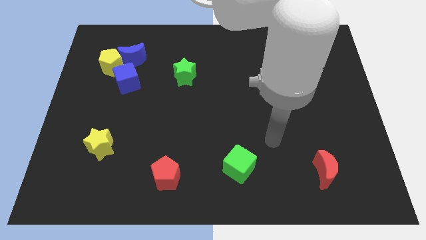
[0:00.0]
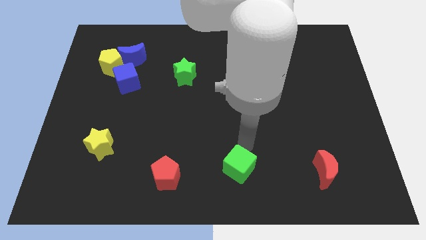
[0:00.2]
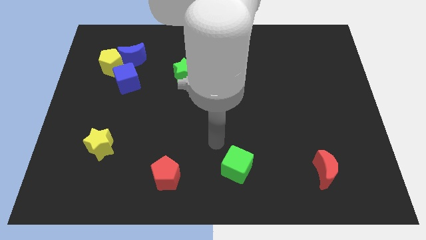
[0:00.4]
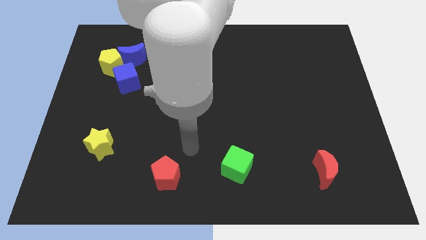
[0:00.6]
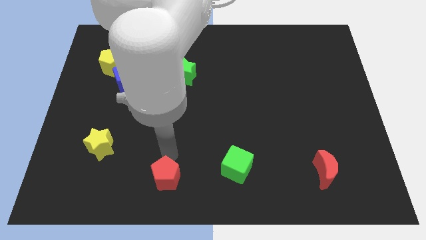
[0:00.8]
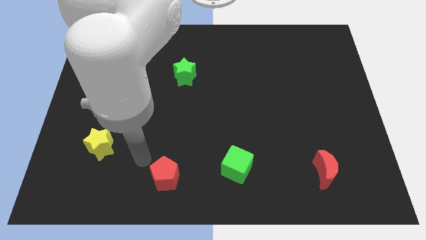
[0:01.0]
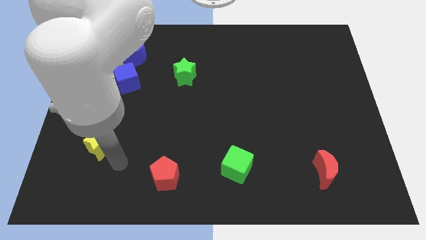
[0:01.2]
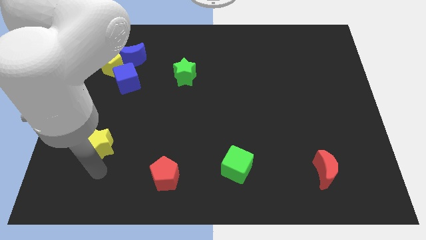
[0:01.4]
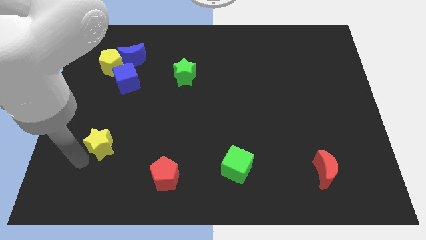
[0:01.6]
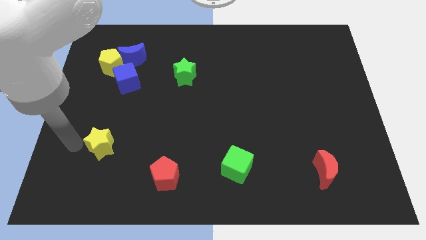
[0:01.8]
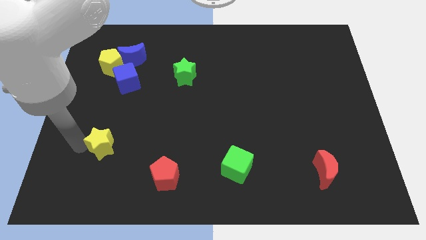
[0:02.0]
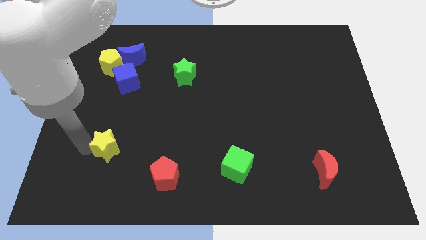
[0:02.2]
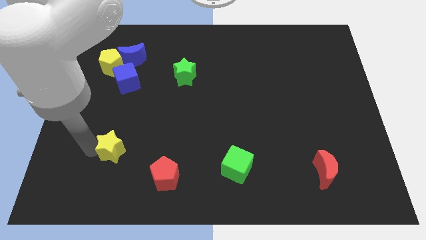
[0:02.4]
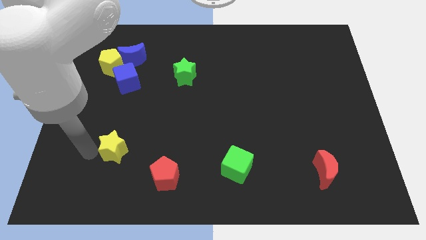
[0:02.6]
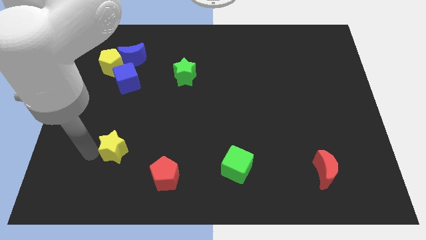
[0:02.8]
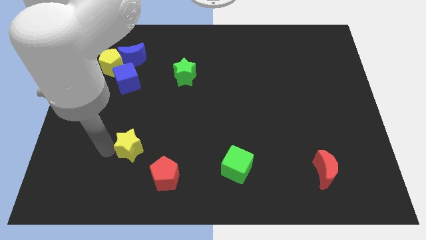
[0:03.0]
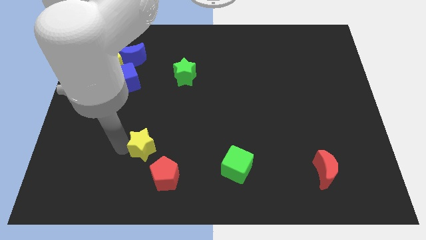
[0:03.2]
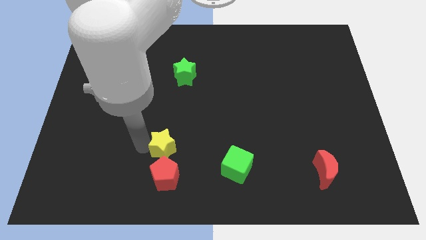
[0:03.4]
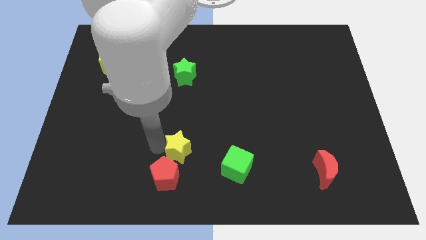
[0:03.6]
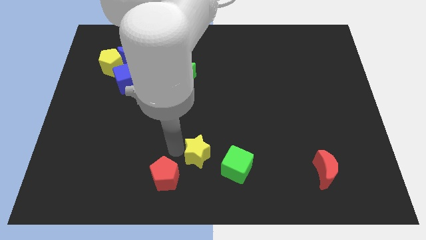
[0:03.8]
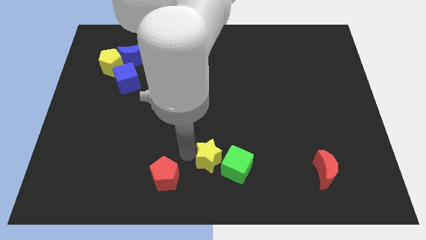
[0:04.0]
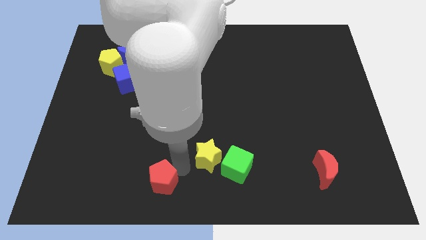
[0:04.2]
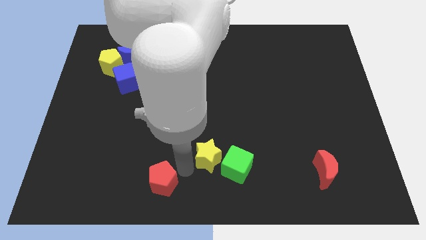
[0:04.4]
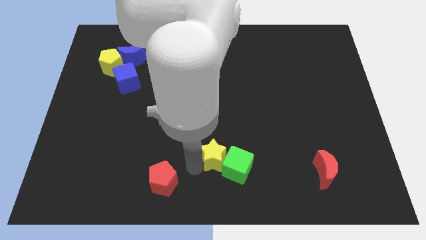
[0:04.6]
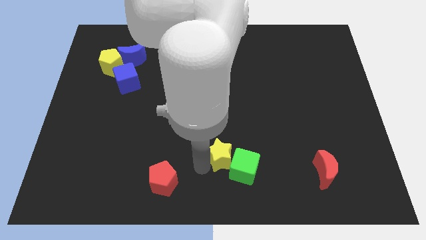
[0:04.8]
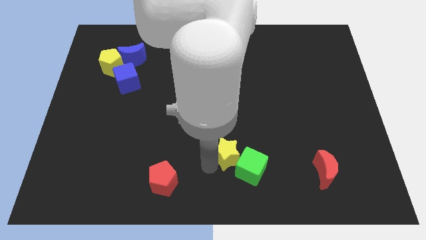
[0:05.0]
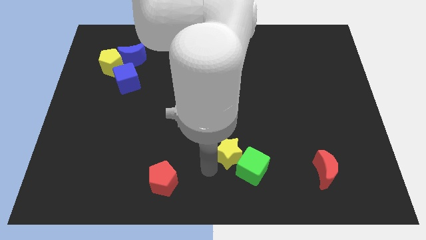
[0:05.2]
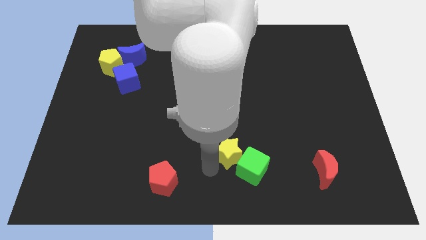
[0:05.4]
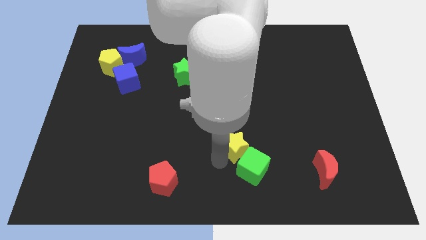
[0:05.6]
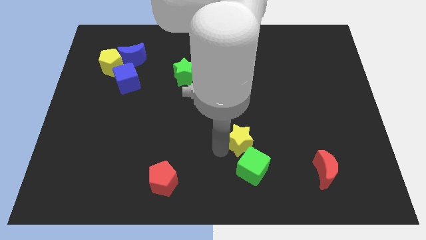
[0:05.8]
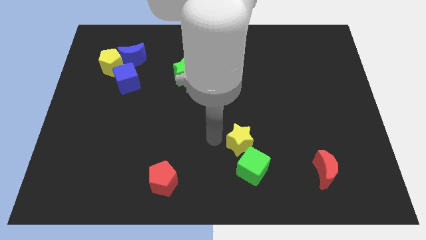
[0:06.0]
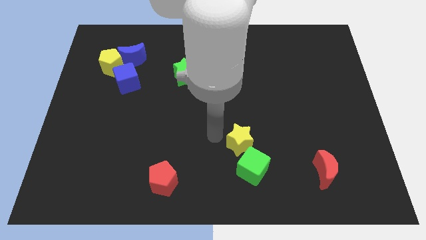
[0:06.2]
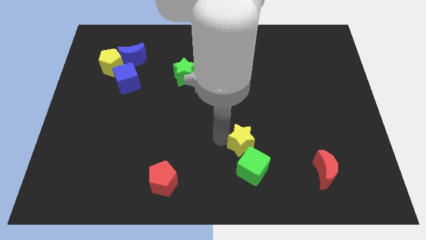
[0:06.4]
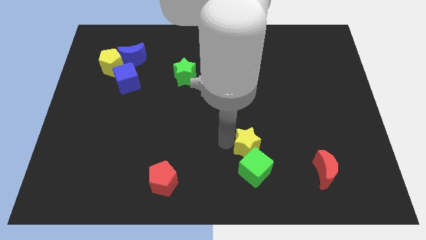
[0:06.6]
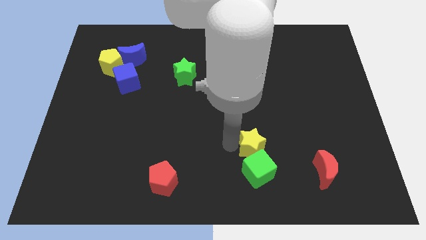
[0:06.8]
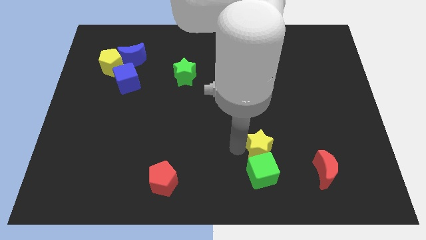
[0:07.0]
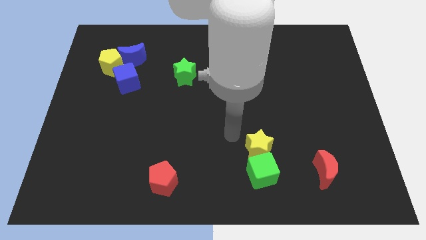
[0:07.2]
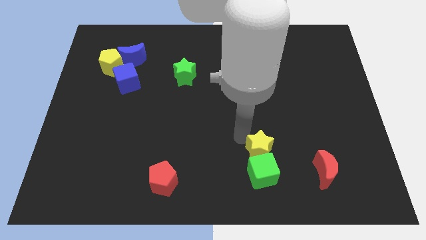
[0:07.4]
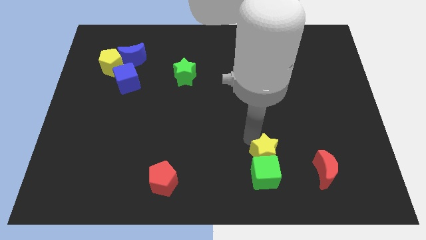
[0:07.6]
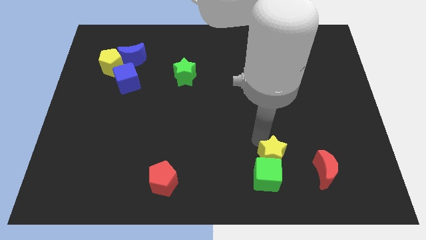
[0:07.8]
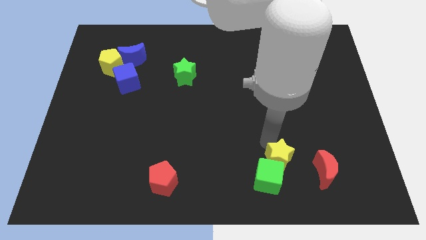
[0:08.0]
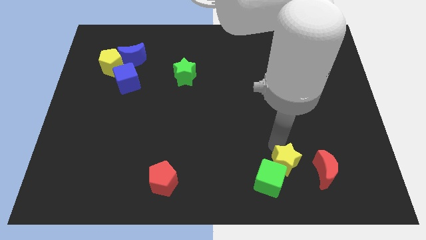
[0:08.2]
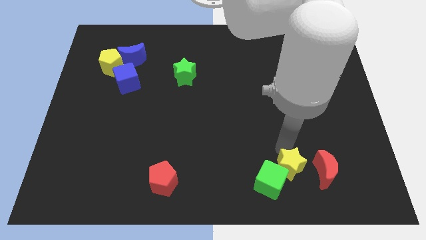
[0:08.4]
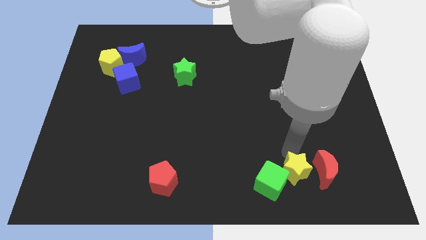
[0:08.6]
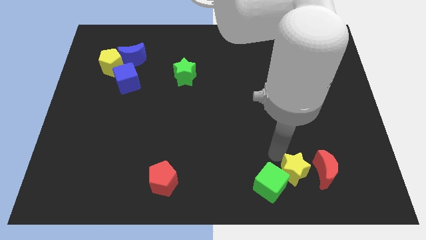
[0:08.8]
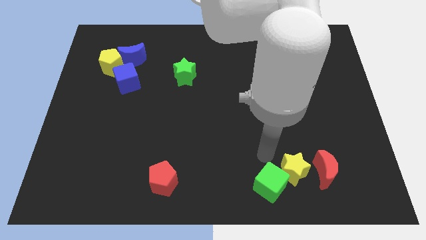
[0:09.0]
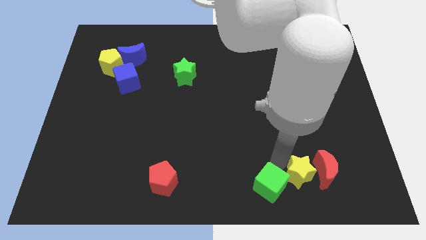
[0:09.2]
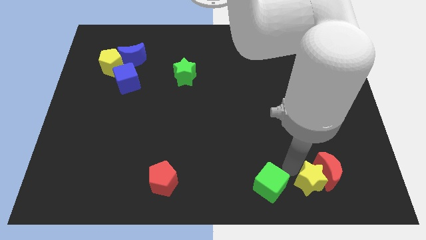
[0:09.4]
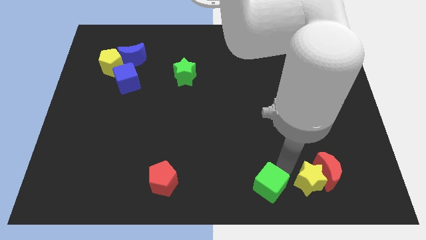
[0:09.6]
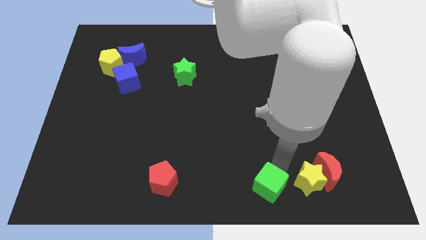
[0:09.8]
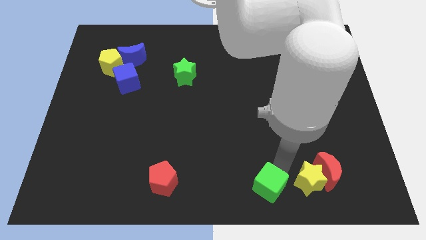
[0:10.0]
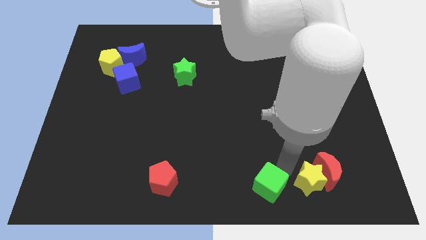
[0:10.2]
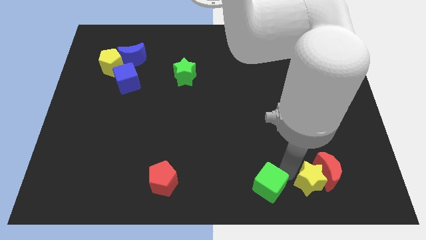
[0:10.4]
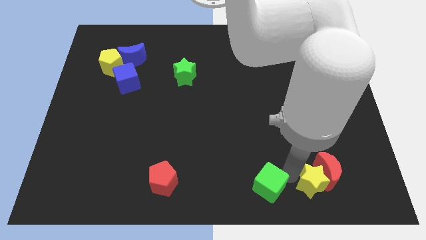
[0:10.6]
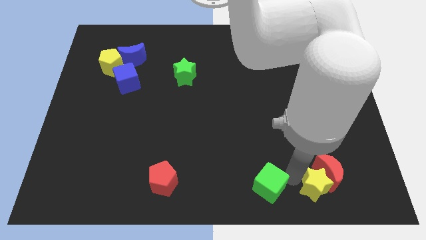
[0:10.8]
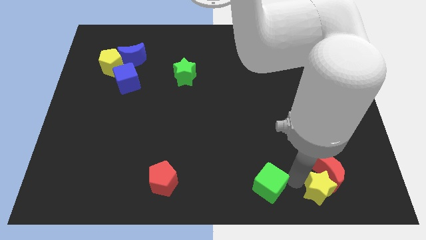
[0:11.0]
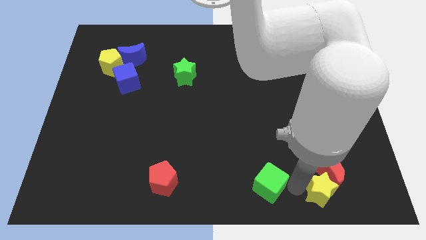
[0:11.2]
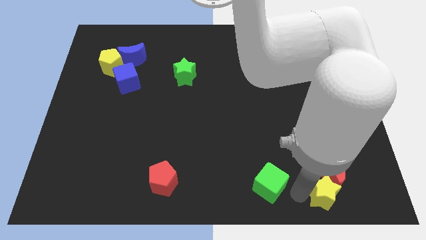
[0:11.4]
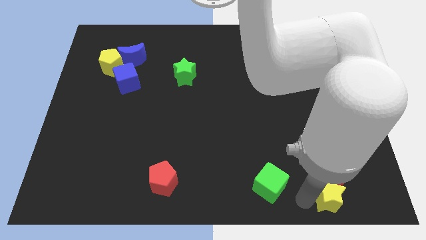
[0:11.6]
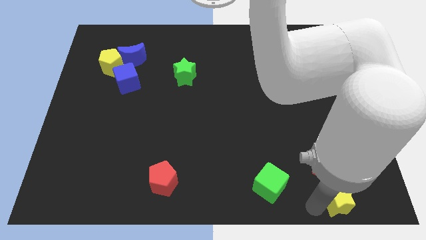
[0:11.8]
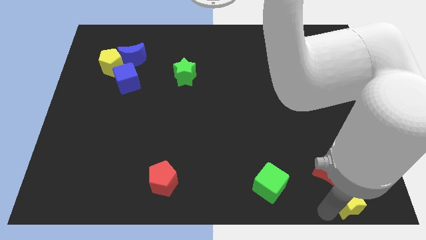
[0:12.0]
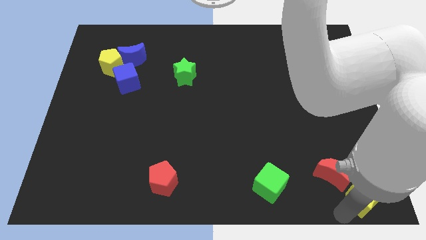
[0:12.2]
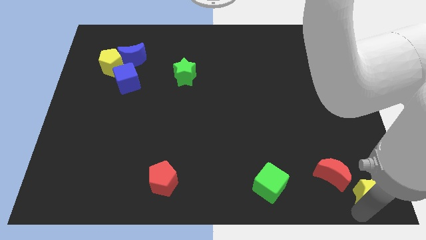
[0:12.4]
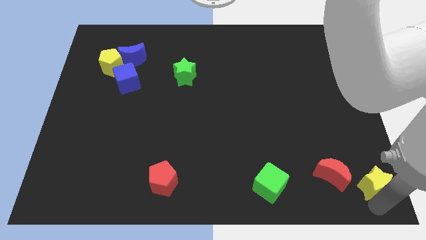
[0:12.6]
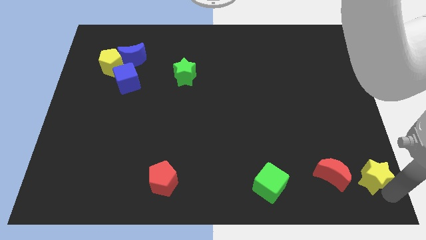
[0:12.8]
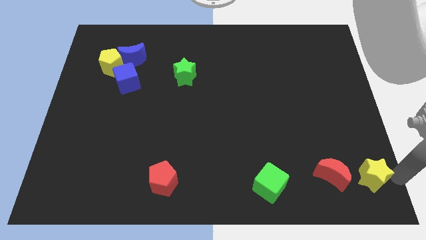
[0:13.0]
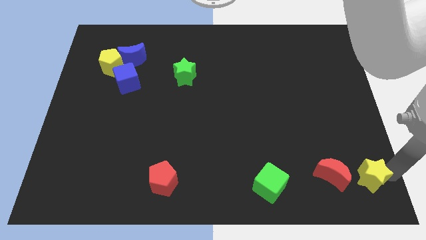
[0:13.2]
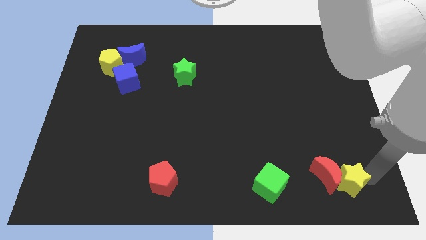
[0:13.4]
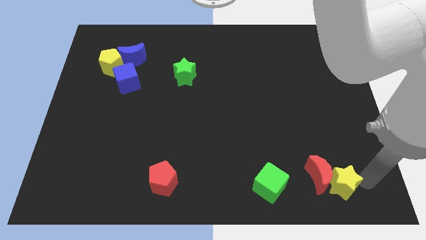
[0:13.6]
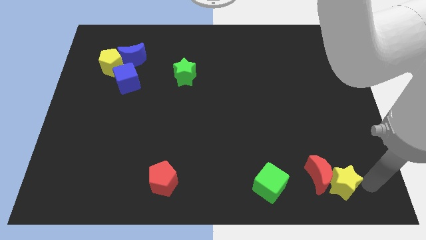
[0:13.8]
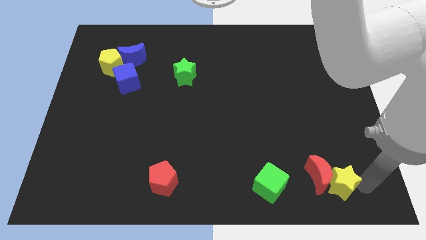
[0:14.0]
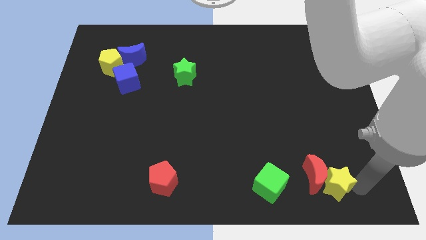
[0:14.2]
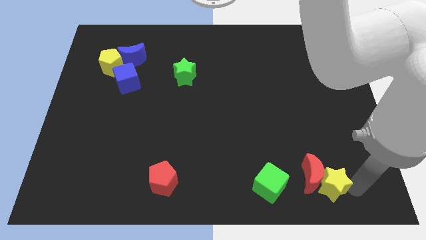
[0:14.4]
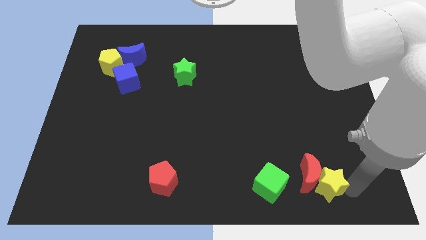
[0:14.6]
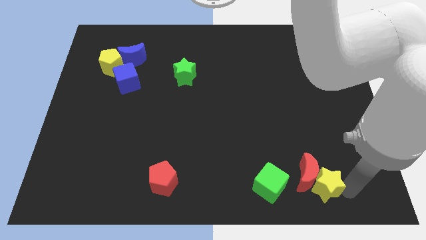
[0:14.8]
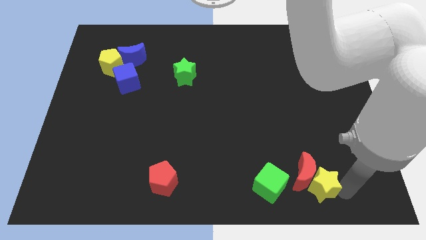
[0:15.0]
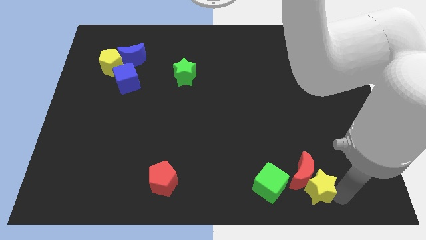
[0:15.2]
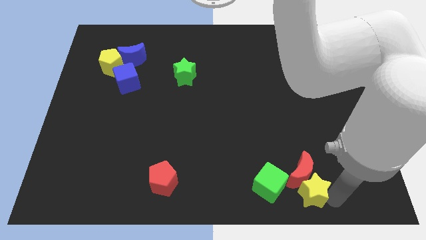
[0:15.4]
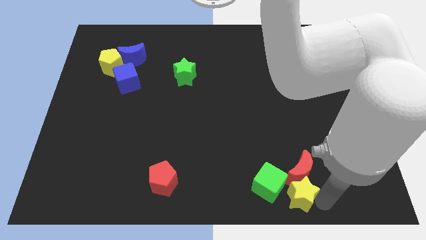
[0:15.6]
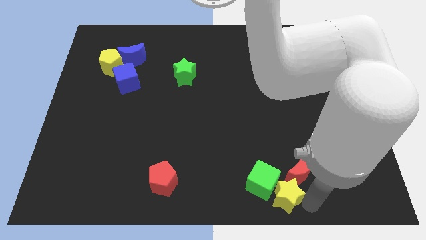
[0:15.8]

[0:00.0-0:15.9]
put the yellow star just right of the green cube

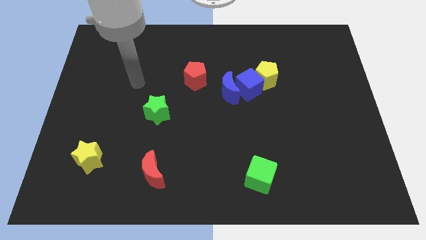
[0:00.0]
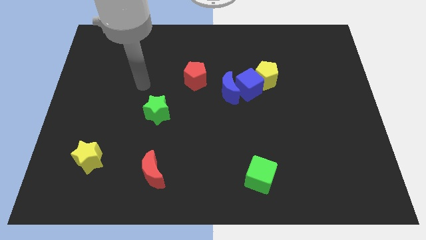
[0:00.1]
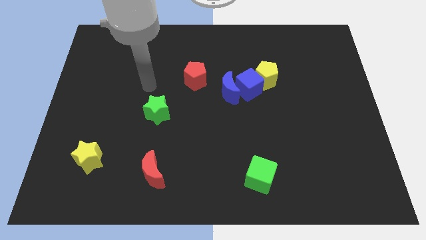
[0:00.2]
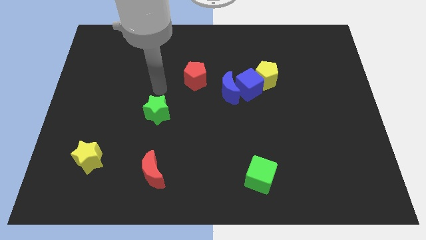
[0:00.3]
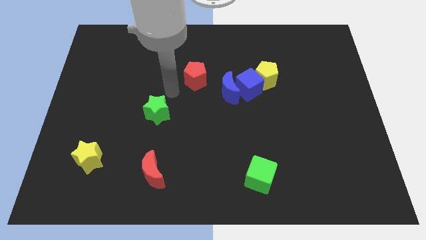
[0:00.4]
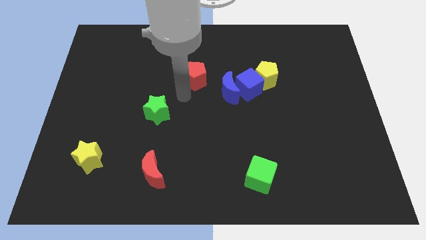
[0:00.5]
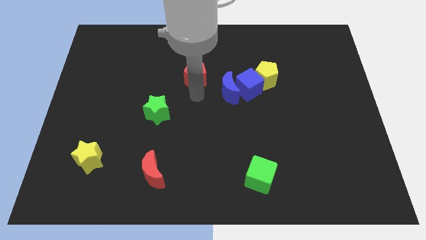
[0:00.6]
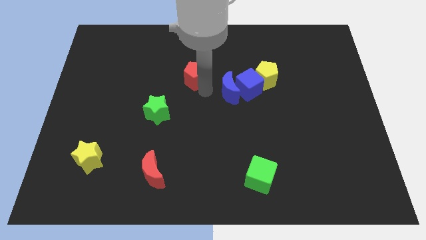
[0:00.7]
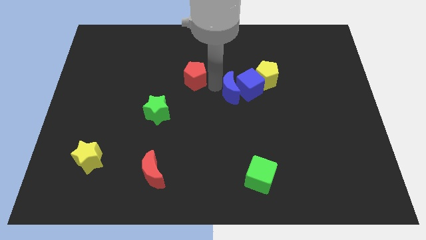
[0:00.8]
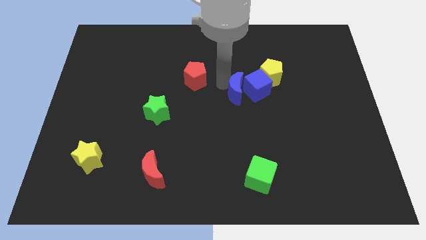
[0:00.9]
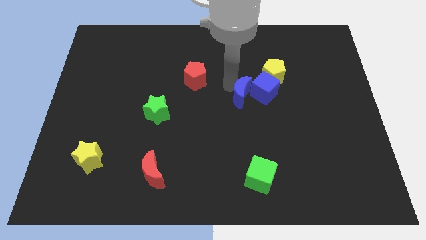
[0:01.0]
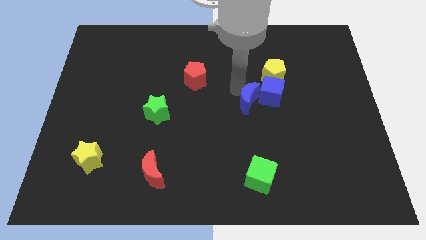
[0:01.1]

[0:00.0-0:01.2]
push the blue cube diagonally down and to the right of the yellow pentagon
